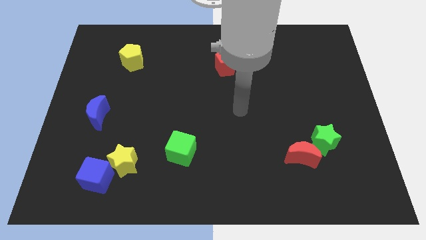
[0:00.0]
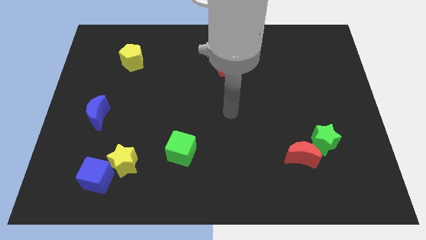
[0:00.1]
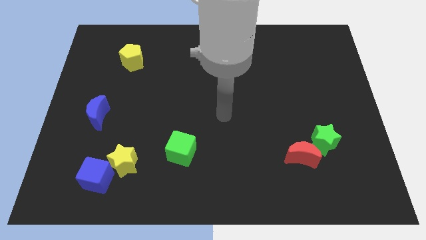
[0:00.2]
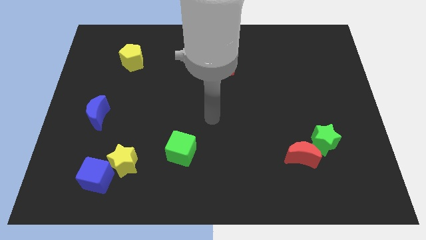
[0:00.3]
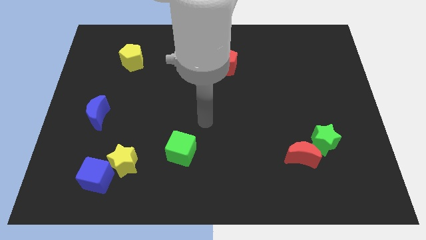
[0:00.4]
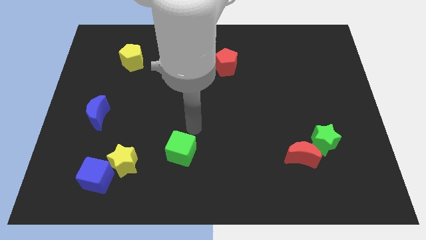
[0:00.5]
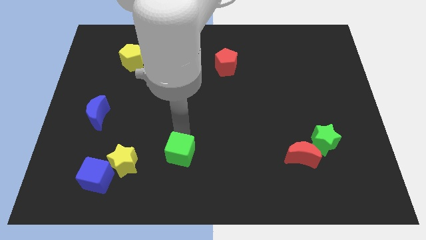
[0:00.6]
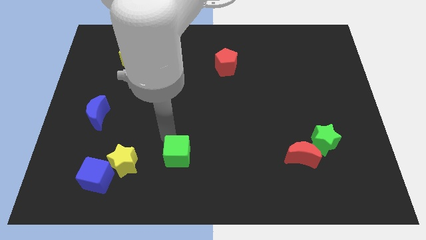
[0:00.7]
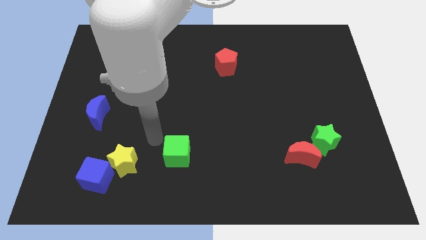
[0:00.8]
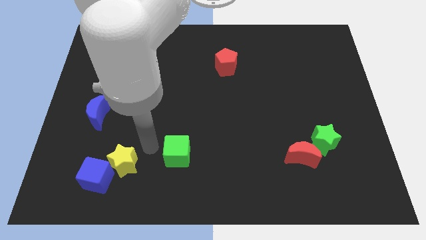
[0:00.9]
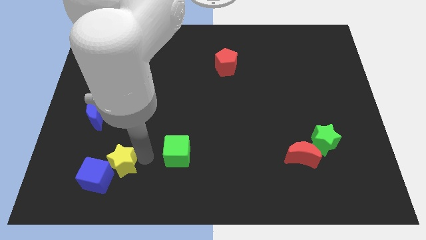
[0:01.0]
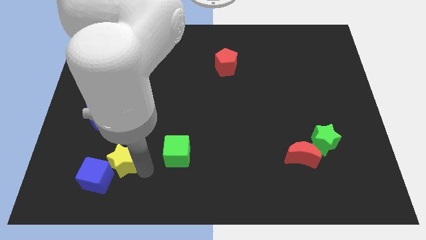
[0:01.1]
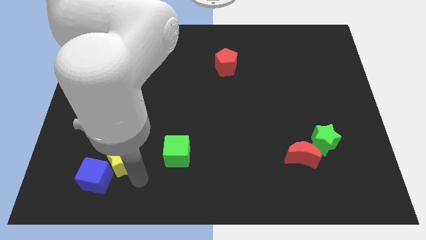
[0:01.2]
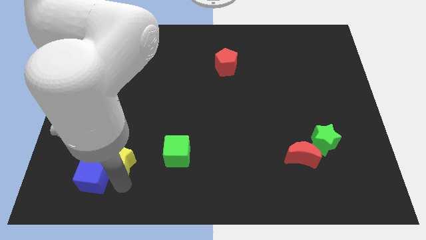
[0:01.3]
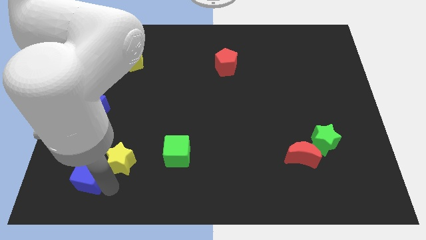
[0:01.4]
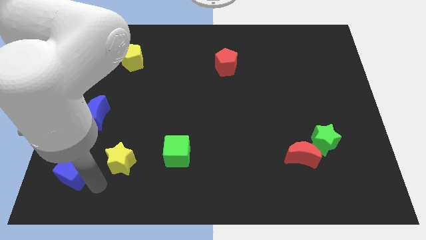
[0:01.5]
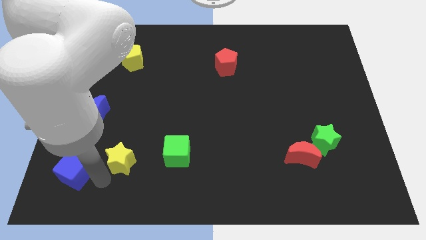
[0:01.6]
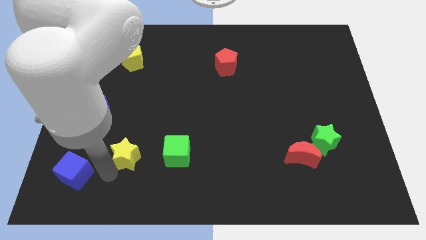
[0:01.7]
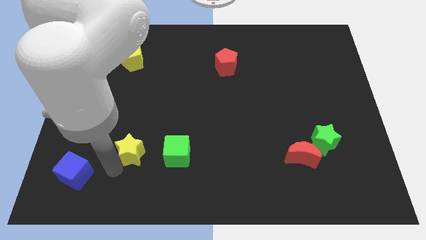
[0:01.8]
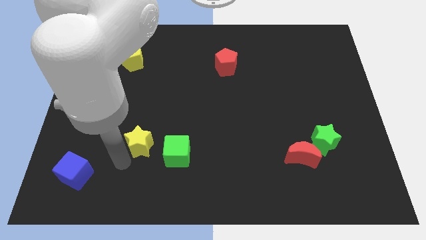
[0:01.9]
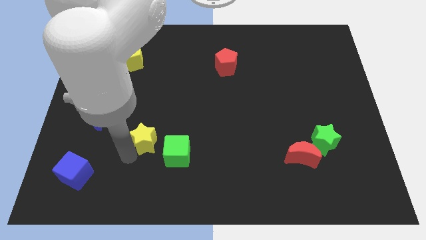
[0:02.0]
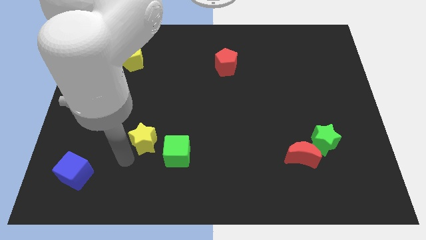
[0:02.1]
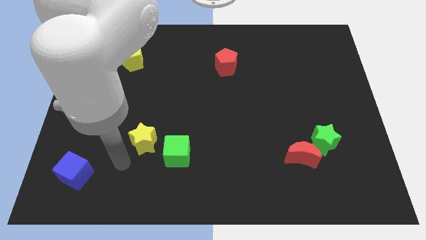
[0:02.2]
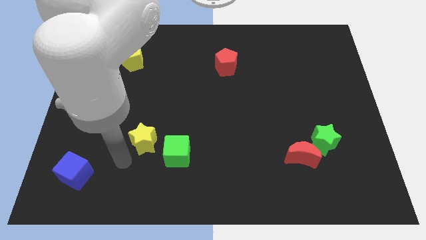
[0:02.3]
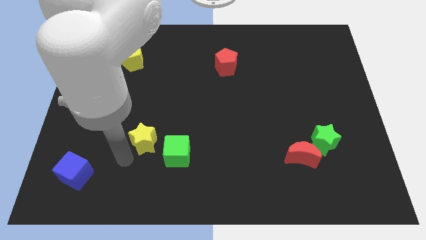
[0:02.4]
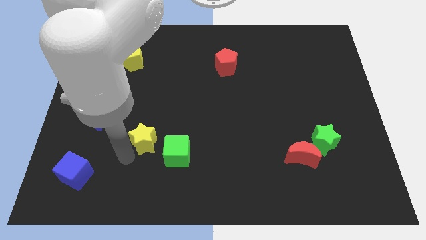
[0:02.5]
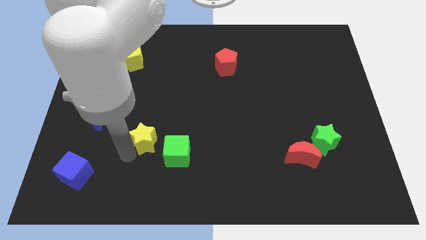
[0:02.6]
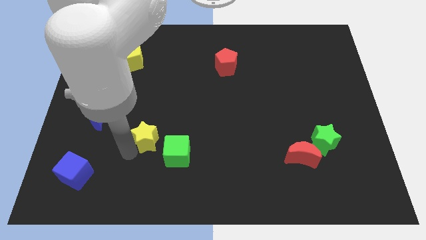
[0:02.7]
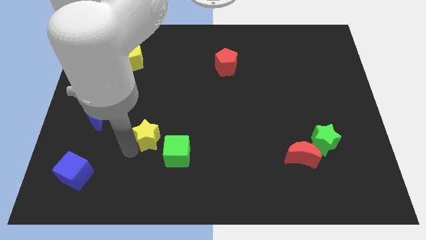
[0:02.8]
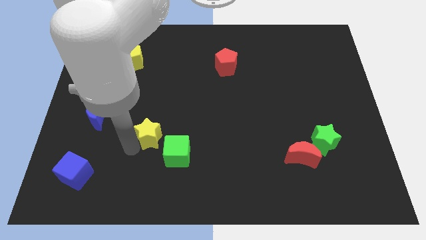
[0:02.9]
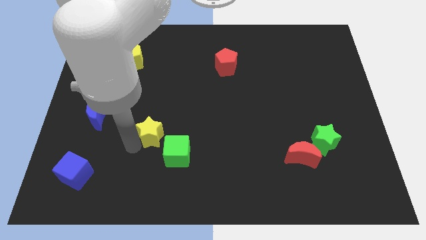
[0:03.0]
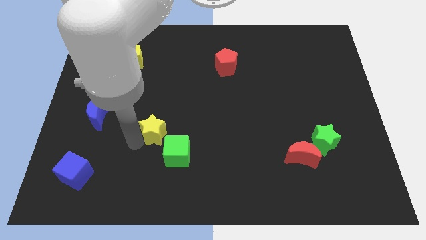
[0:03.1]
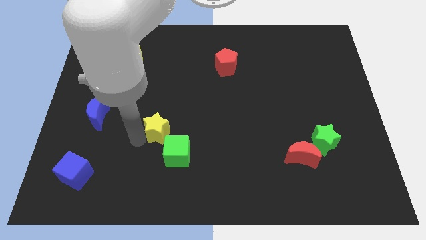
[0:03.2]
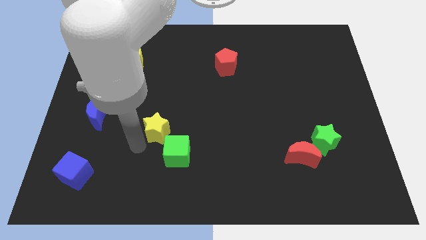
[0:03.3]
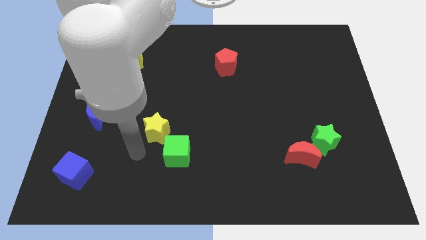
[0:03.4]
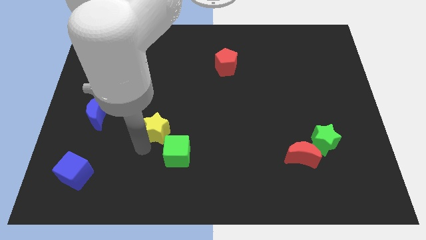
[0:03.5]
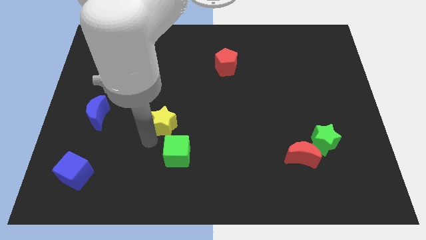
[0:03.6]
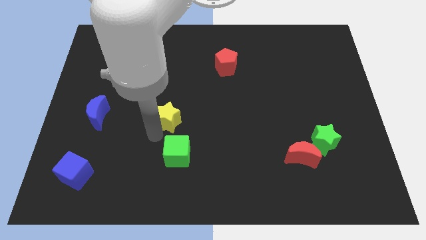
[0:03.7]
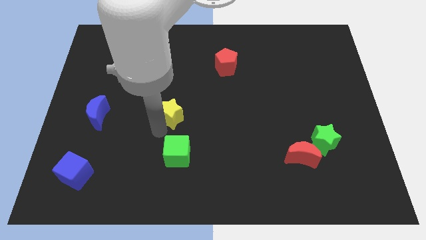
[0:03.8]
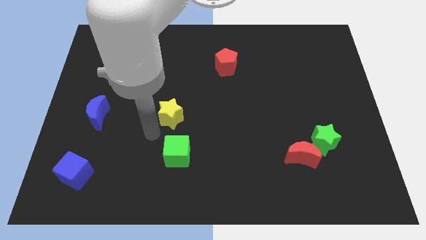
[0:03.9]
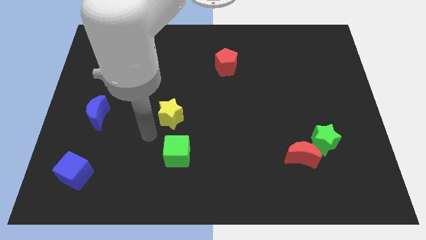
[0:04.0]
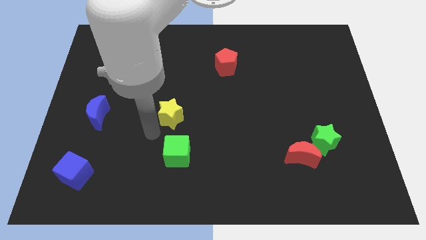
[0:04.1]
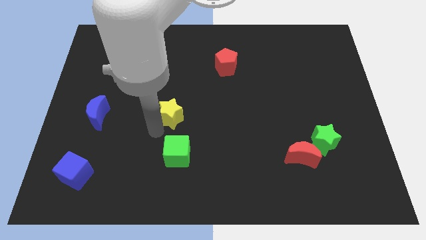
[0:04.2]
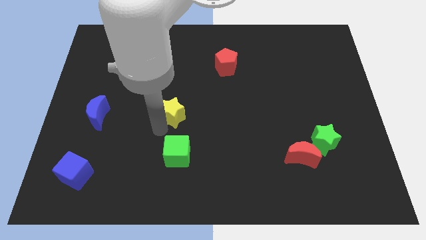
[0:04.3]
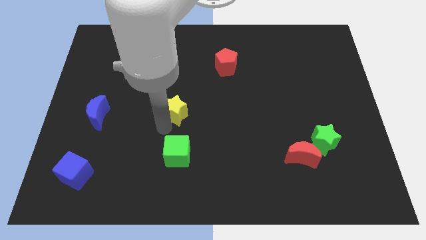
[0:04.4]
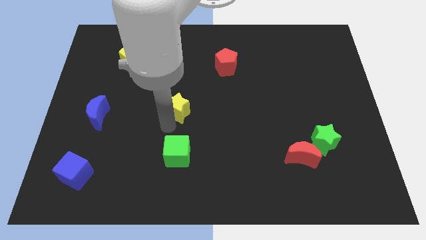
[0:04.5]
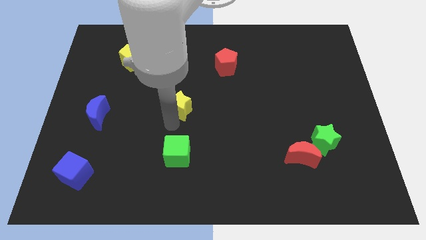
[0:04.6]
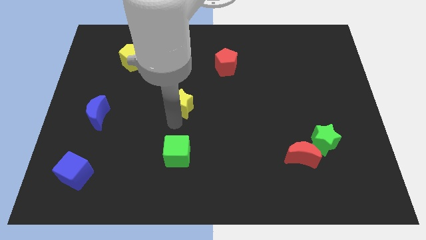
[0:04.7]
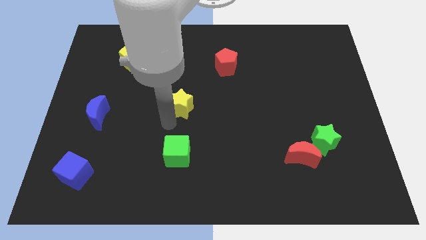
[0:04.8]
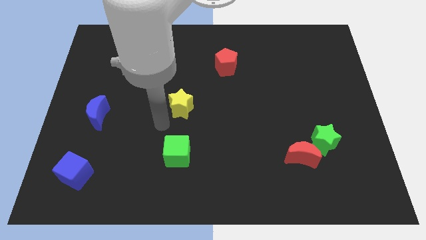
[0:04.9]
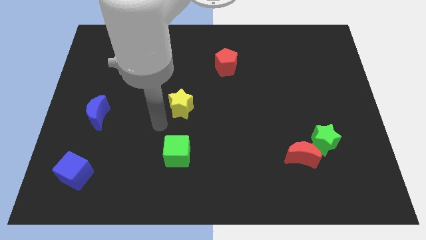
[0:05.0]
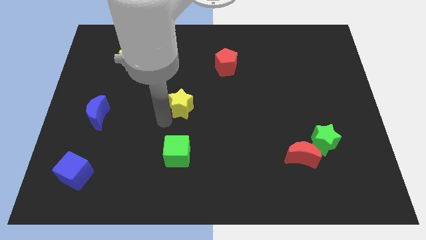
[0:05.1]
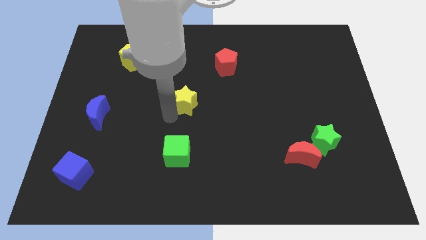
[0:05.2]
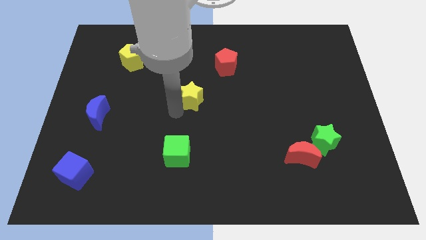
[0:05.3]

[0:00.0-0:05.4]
move the yellow star up and to the right

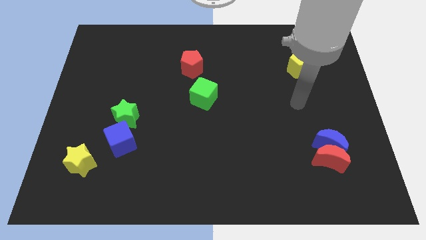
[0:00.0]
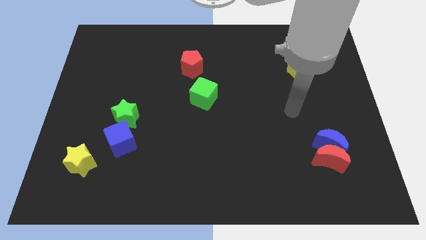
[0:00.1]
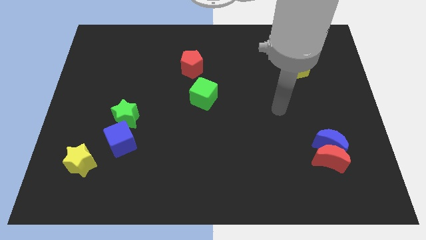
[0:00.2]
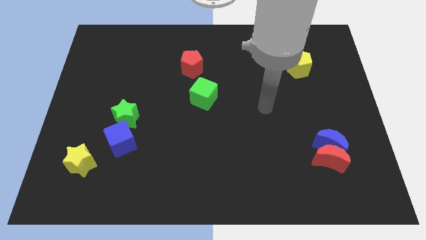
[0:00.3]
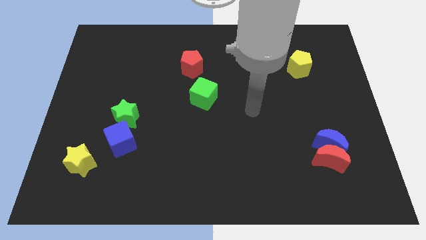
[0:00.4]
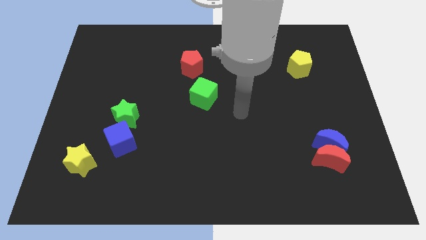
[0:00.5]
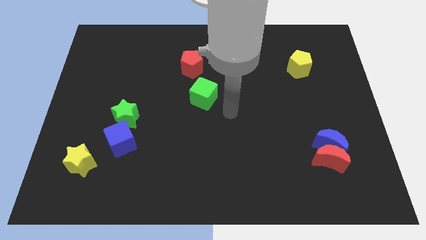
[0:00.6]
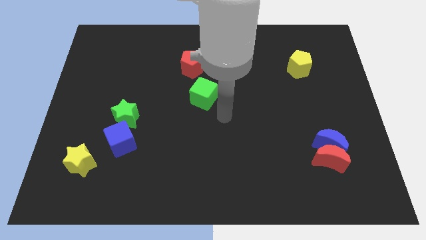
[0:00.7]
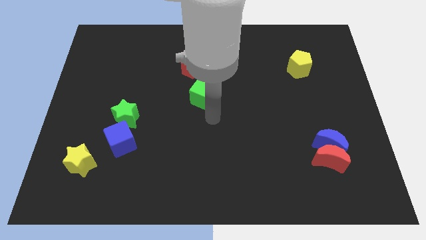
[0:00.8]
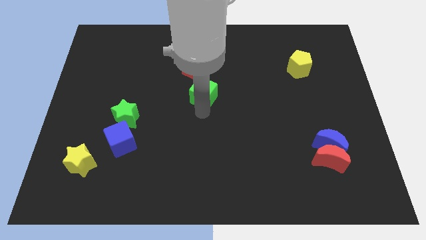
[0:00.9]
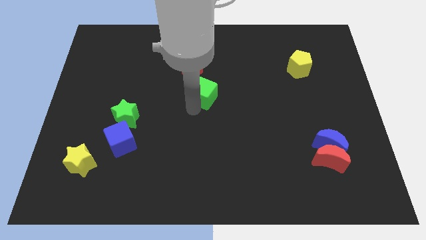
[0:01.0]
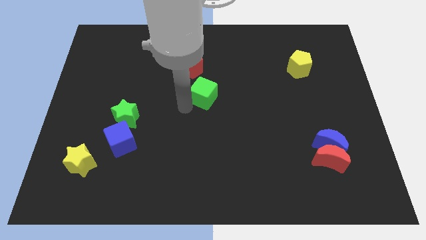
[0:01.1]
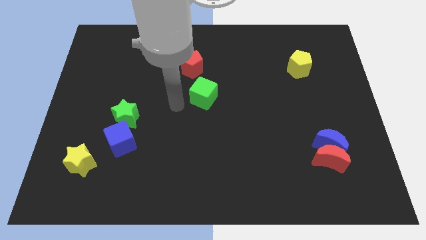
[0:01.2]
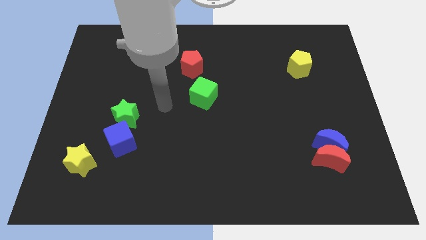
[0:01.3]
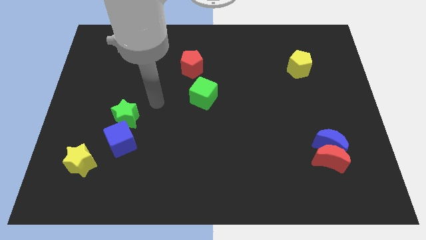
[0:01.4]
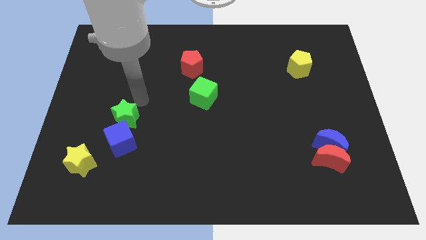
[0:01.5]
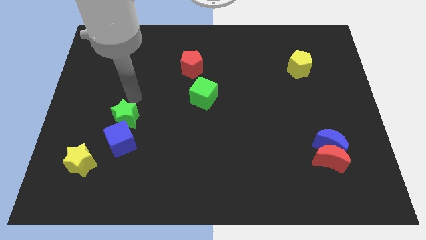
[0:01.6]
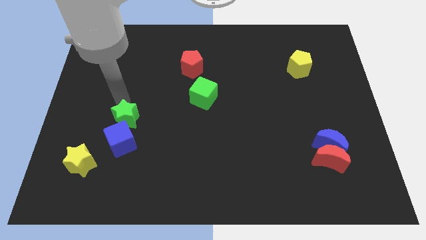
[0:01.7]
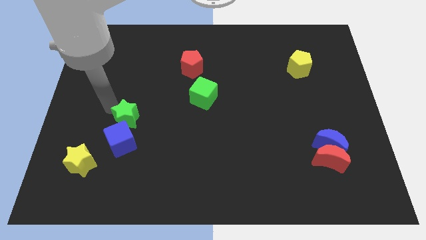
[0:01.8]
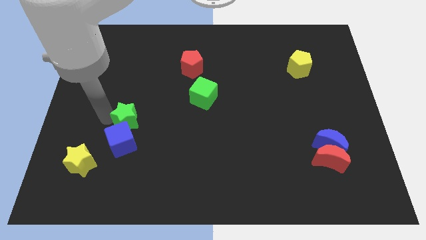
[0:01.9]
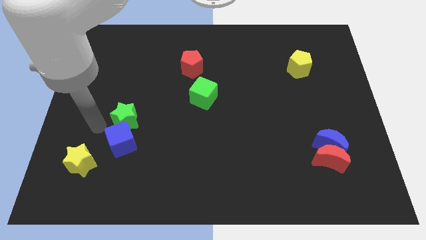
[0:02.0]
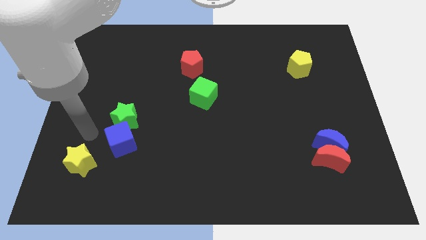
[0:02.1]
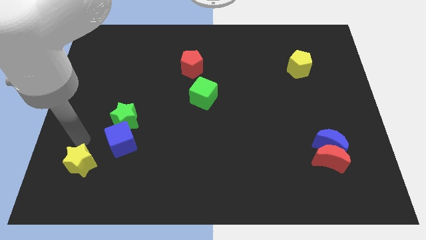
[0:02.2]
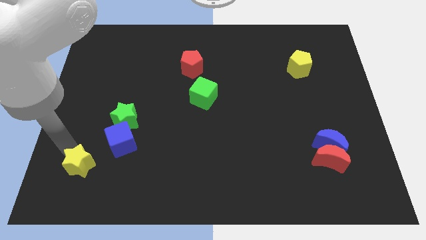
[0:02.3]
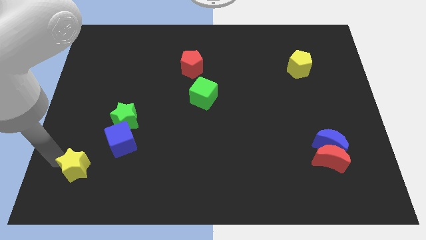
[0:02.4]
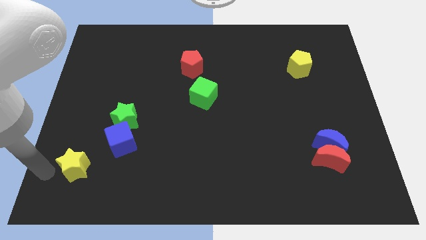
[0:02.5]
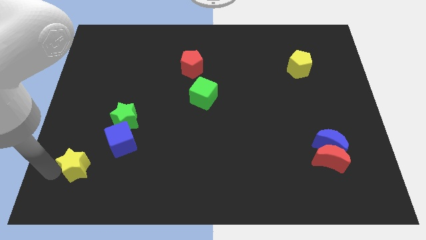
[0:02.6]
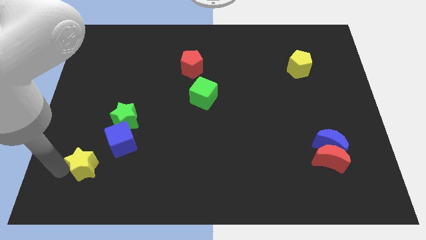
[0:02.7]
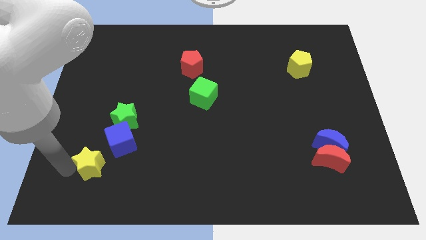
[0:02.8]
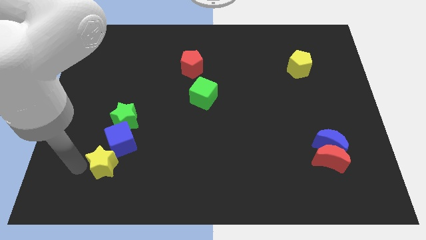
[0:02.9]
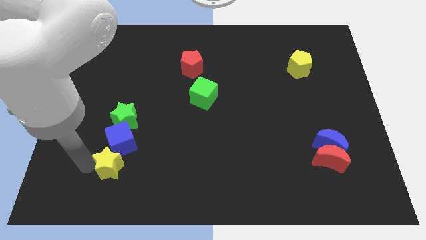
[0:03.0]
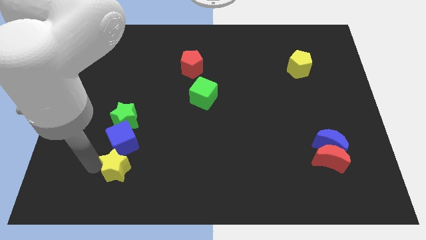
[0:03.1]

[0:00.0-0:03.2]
slide the yellow star to the right a little
